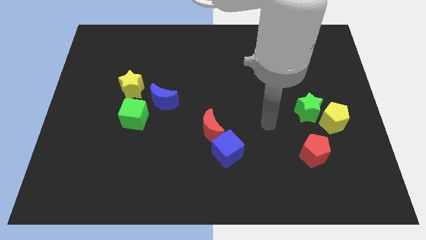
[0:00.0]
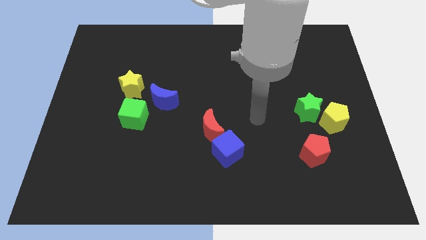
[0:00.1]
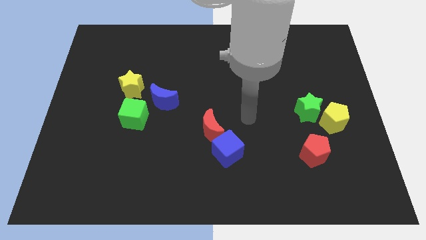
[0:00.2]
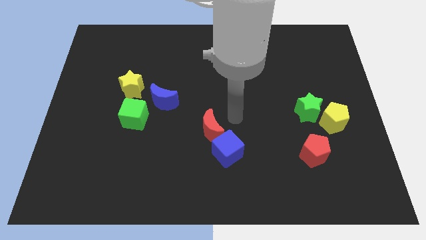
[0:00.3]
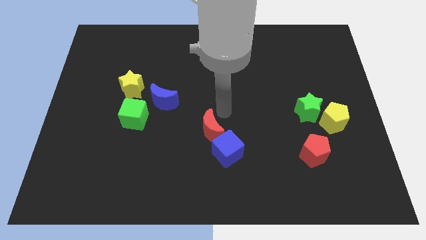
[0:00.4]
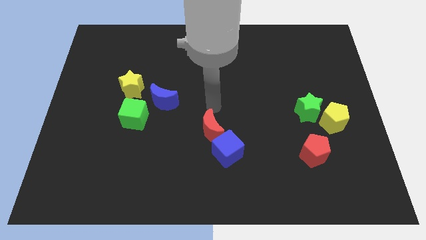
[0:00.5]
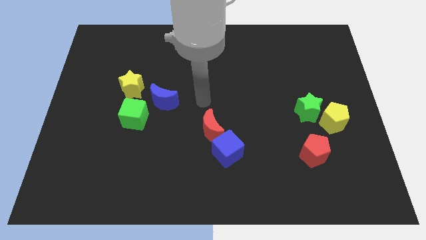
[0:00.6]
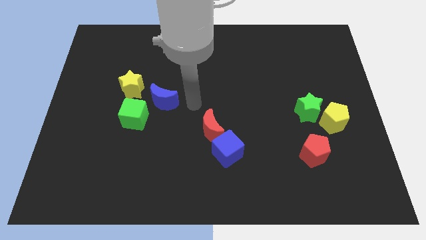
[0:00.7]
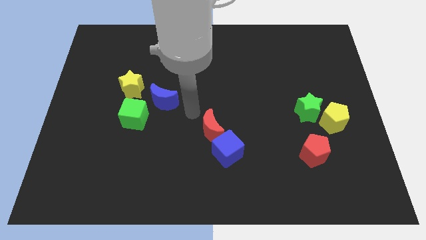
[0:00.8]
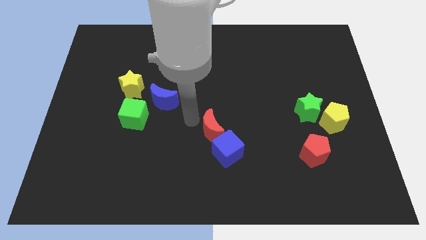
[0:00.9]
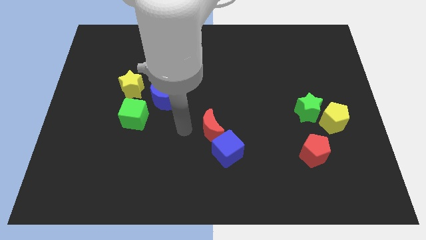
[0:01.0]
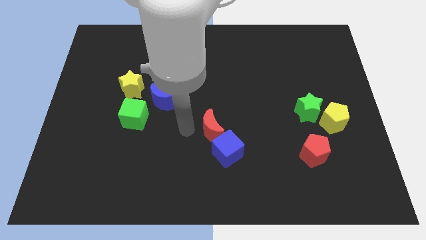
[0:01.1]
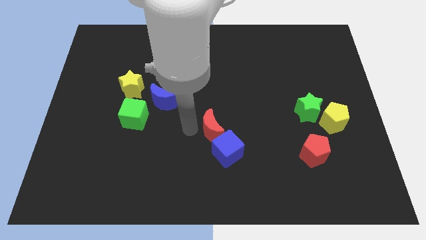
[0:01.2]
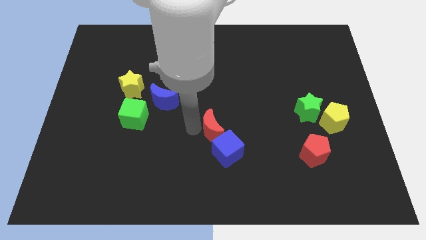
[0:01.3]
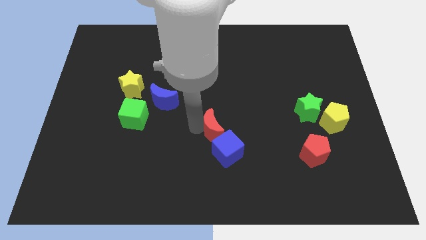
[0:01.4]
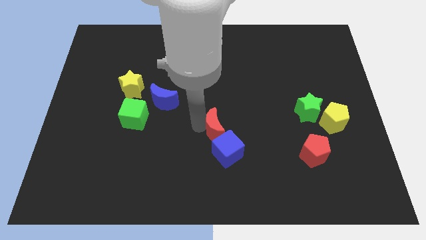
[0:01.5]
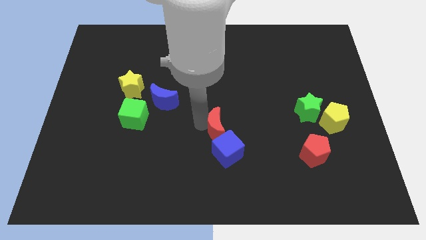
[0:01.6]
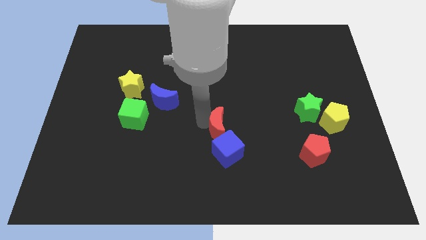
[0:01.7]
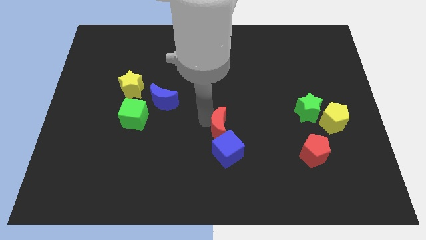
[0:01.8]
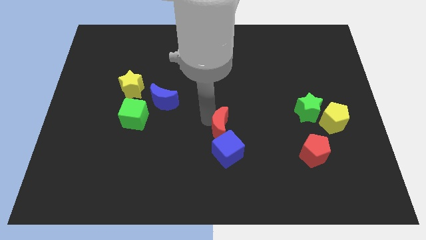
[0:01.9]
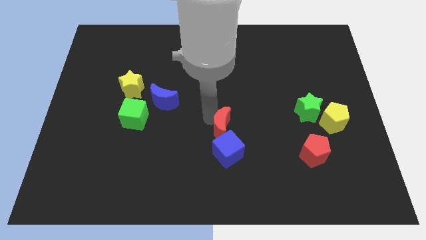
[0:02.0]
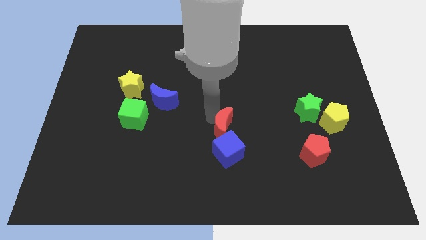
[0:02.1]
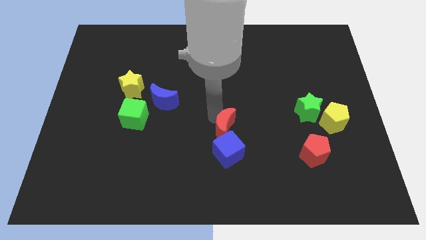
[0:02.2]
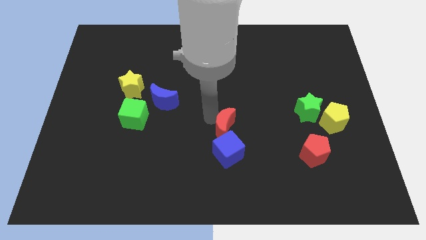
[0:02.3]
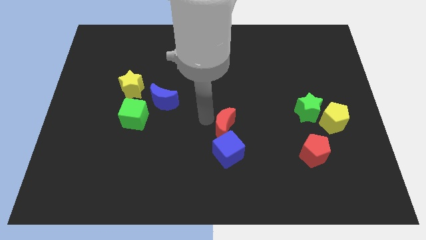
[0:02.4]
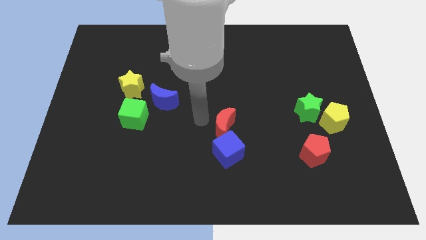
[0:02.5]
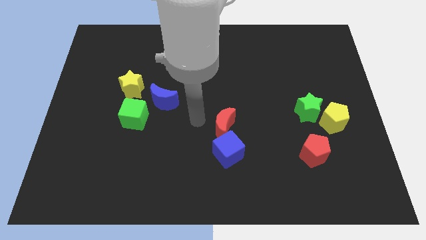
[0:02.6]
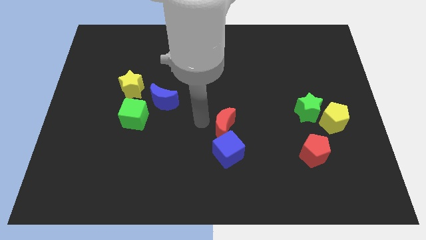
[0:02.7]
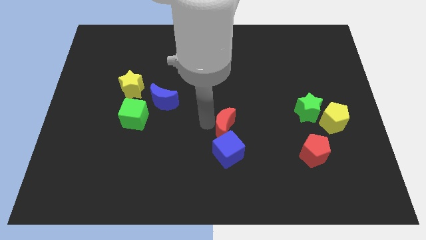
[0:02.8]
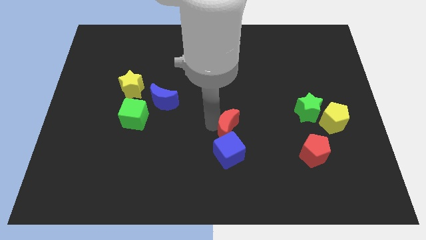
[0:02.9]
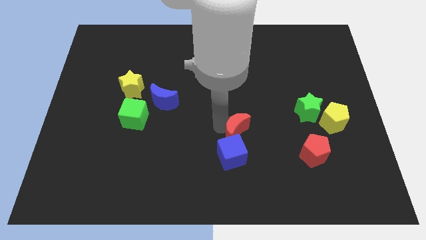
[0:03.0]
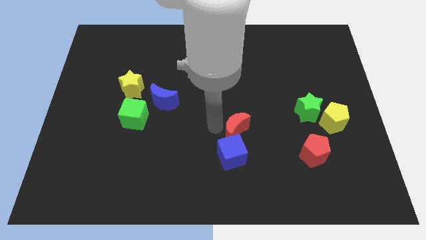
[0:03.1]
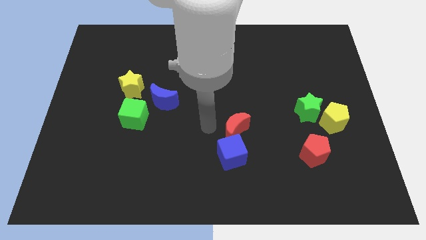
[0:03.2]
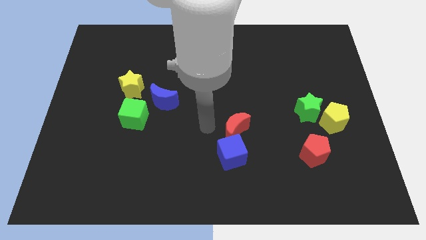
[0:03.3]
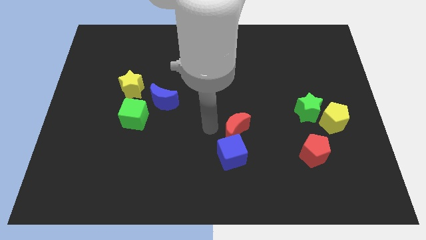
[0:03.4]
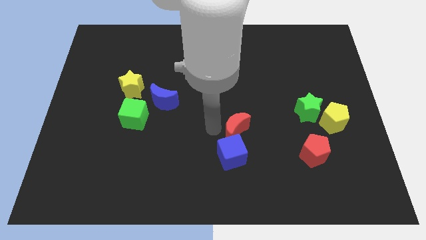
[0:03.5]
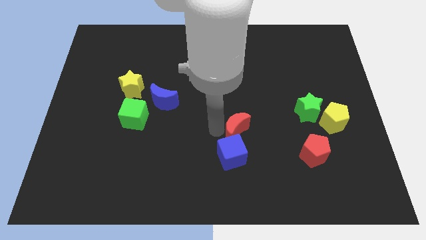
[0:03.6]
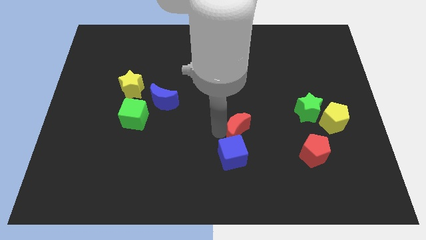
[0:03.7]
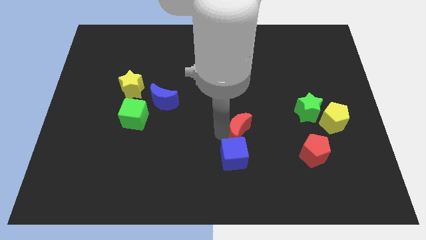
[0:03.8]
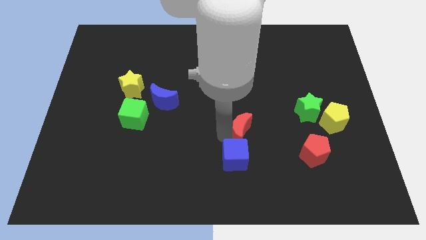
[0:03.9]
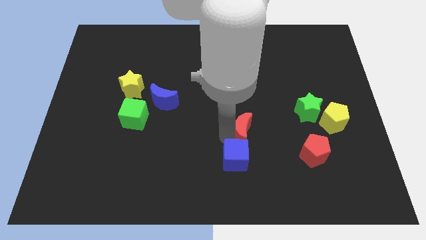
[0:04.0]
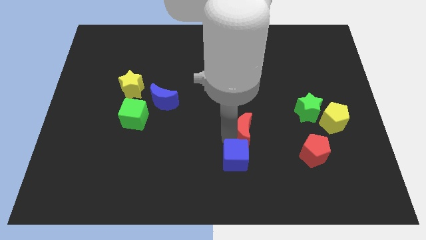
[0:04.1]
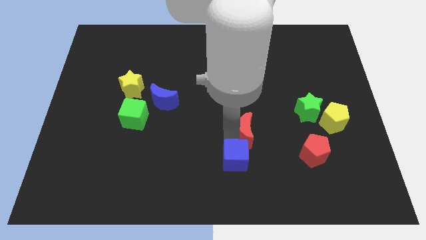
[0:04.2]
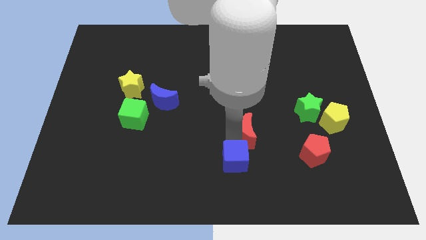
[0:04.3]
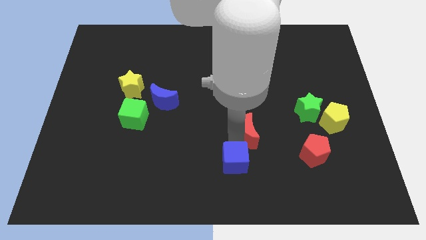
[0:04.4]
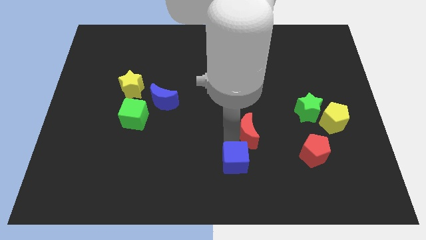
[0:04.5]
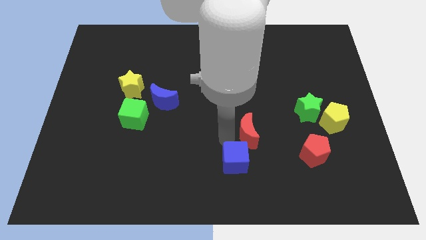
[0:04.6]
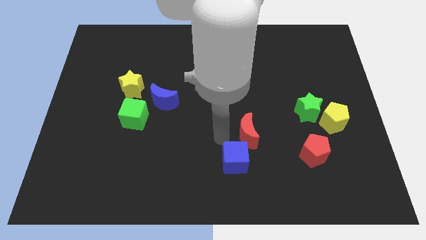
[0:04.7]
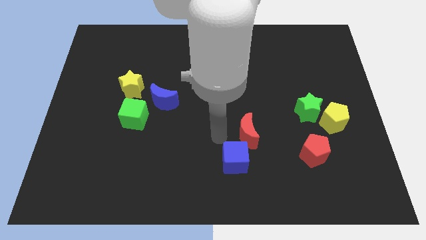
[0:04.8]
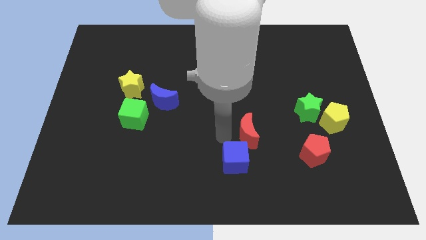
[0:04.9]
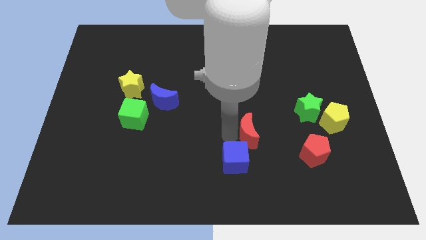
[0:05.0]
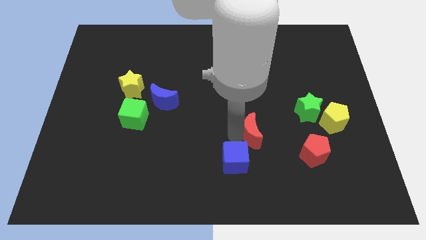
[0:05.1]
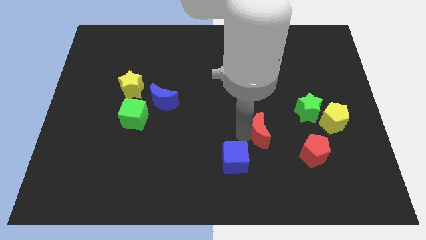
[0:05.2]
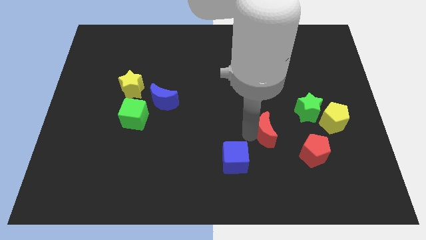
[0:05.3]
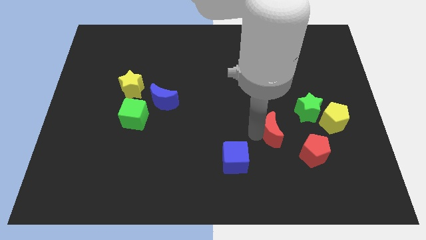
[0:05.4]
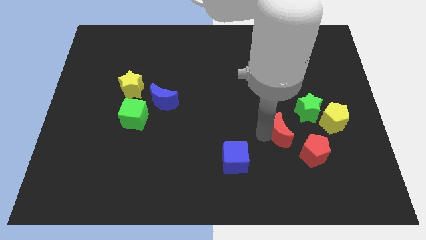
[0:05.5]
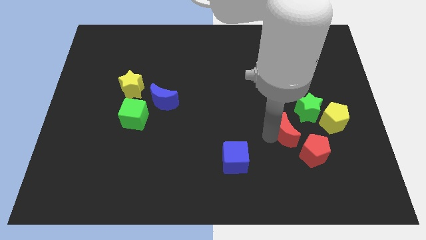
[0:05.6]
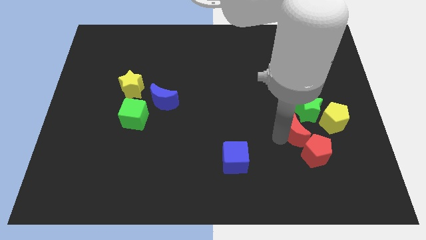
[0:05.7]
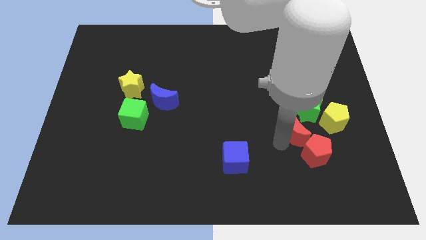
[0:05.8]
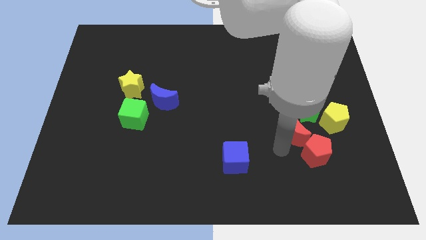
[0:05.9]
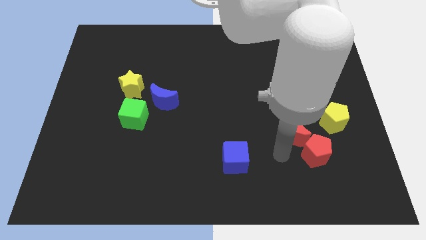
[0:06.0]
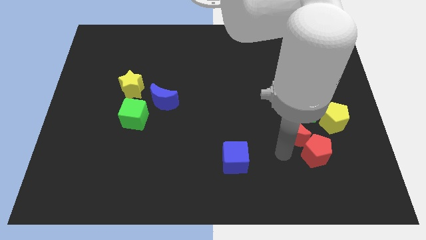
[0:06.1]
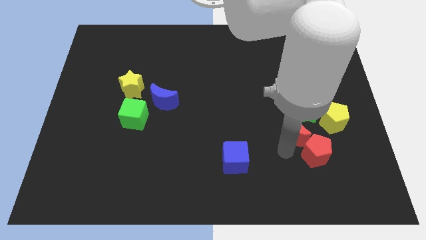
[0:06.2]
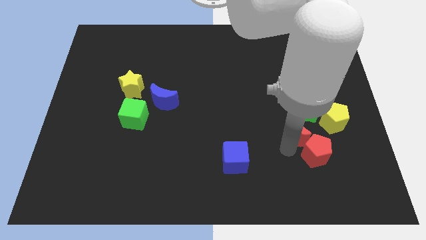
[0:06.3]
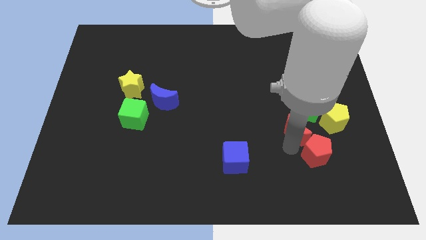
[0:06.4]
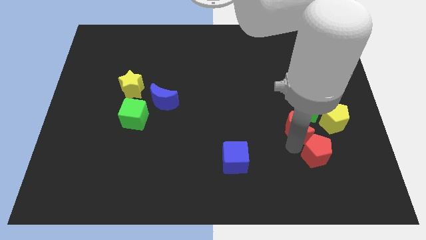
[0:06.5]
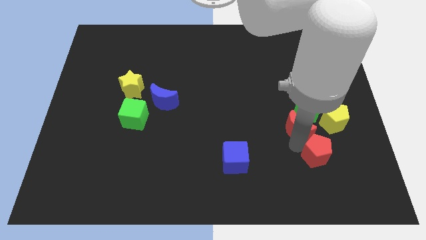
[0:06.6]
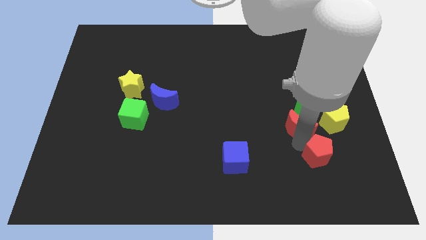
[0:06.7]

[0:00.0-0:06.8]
put the red moon to the green star

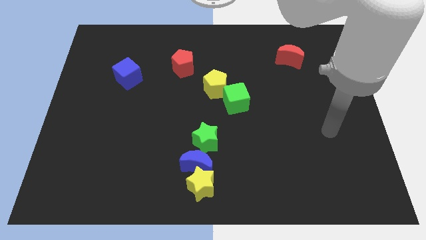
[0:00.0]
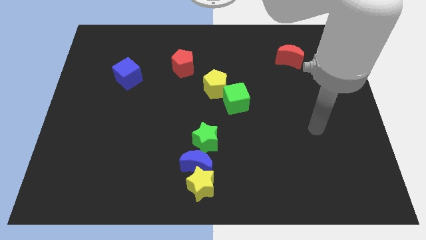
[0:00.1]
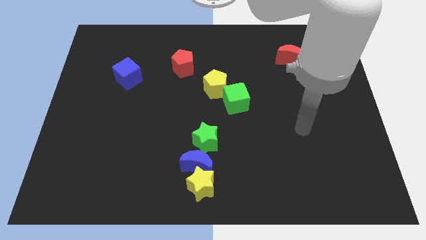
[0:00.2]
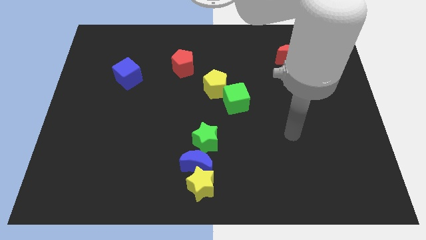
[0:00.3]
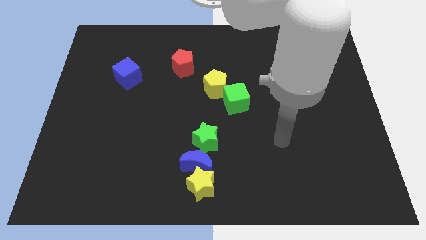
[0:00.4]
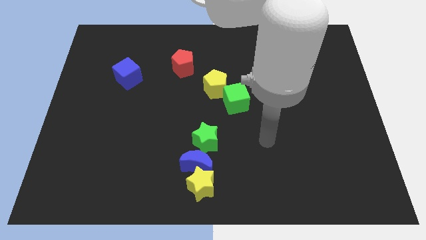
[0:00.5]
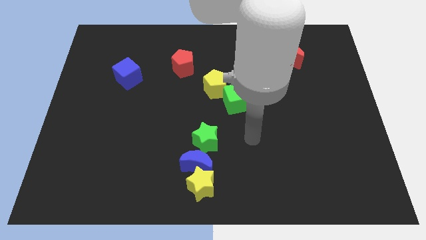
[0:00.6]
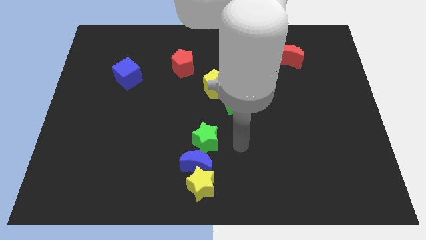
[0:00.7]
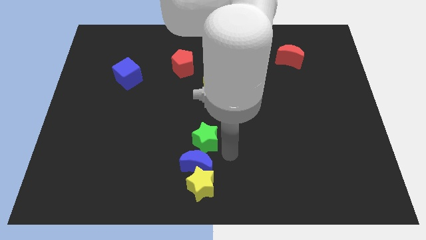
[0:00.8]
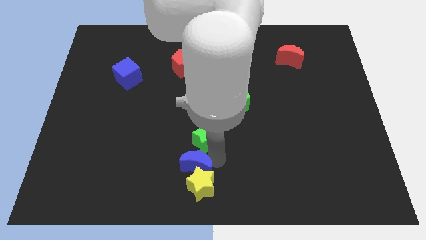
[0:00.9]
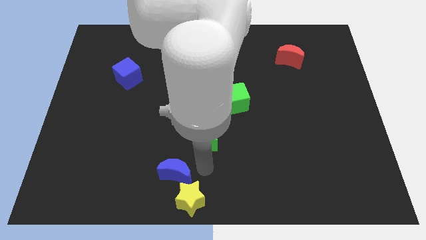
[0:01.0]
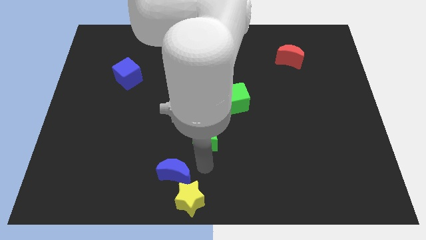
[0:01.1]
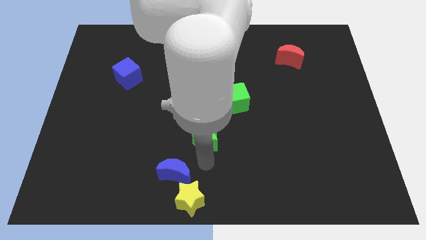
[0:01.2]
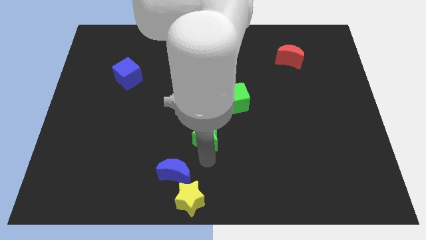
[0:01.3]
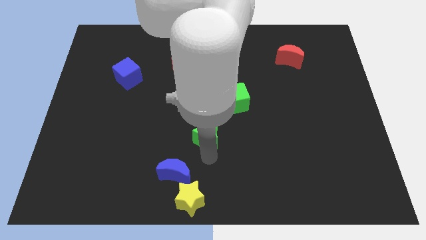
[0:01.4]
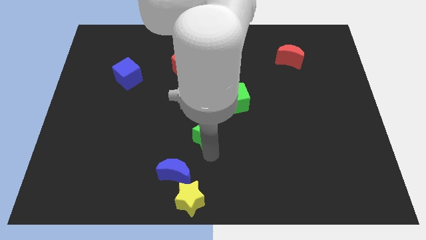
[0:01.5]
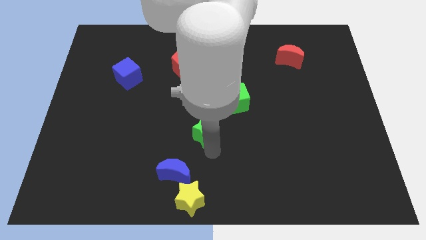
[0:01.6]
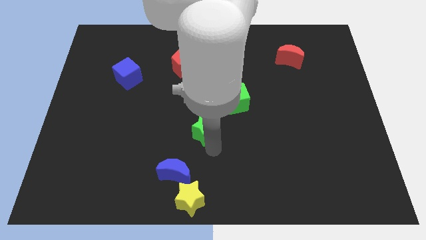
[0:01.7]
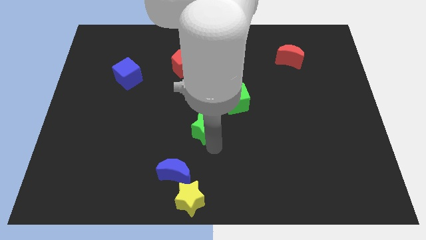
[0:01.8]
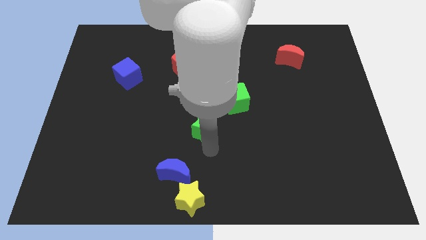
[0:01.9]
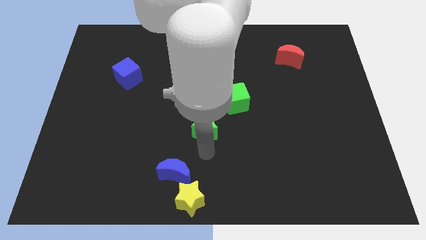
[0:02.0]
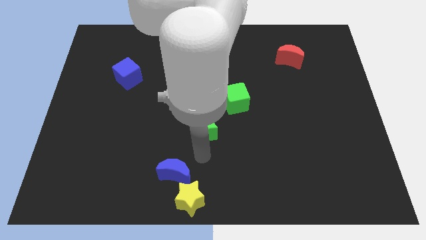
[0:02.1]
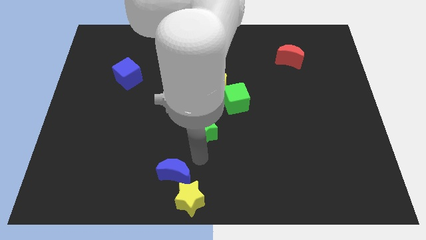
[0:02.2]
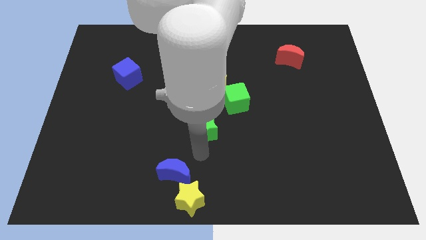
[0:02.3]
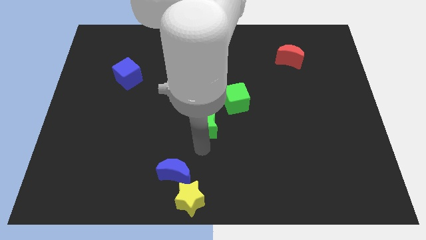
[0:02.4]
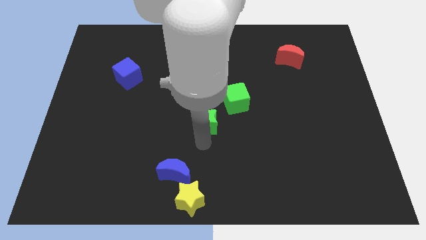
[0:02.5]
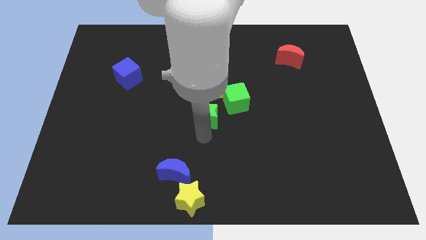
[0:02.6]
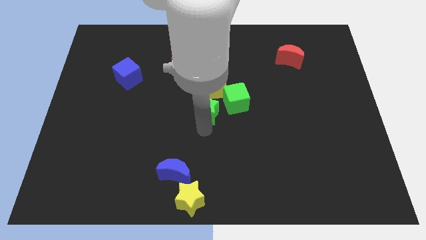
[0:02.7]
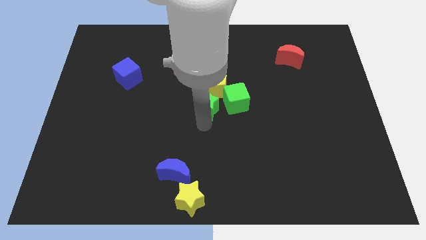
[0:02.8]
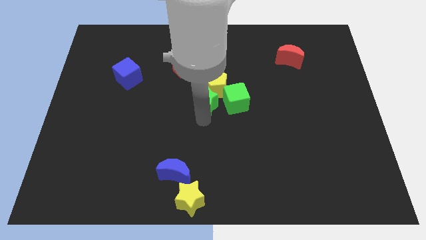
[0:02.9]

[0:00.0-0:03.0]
slide the green star close to the yellow pentagon
